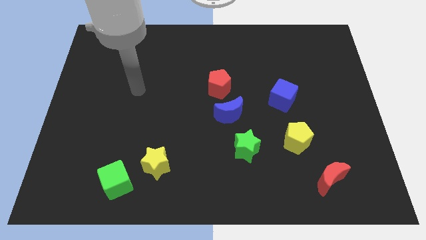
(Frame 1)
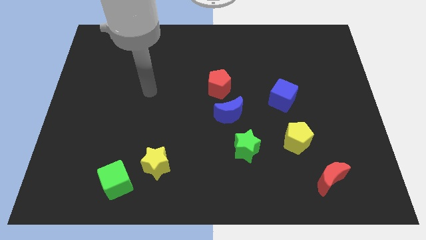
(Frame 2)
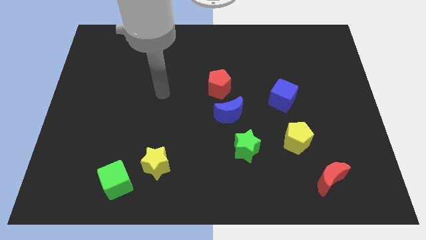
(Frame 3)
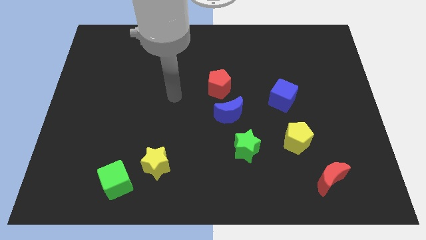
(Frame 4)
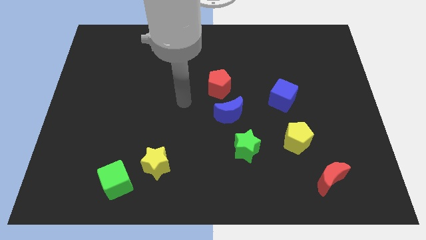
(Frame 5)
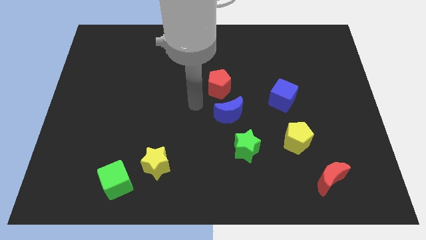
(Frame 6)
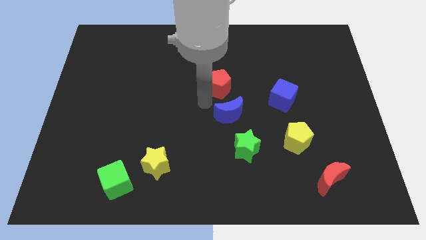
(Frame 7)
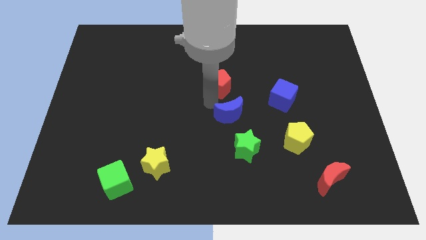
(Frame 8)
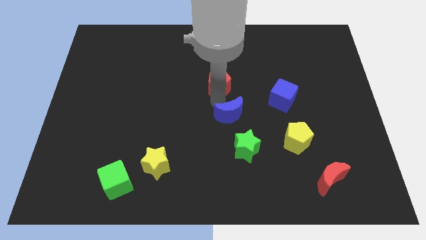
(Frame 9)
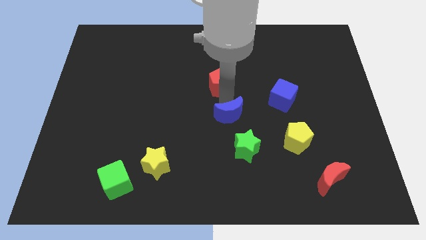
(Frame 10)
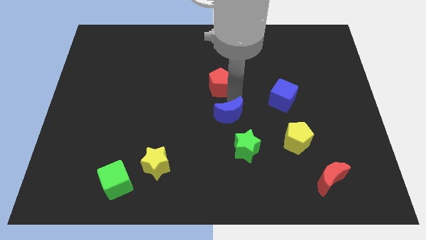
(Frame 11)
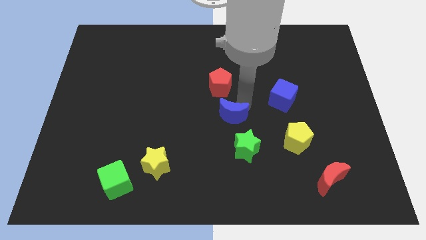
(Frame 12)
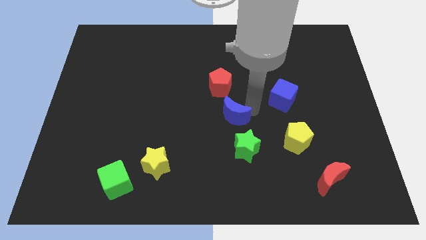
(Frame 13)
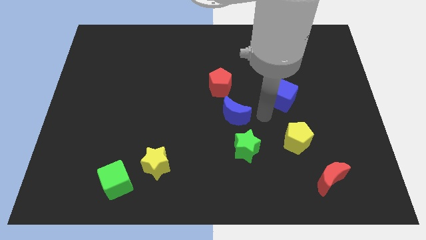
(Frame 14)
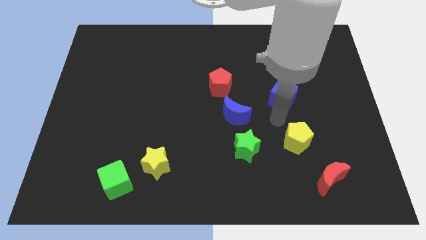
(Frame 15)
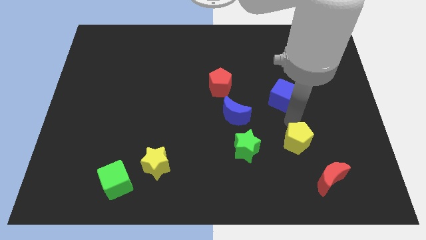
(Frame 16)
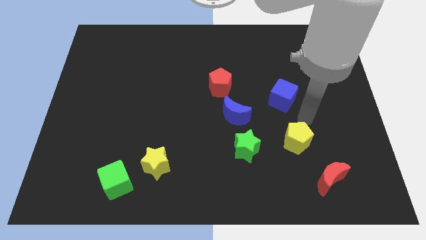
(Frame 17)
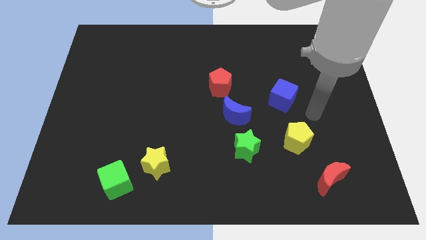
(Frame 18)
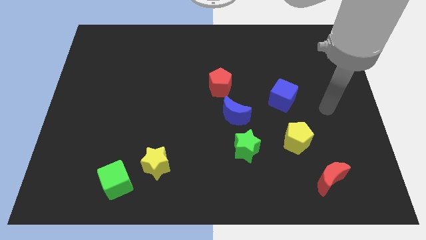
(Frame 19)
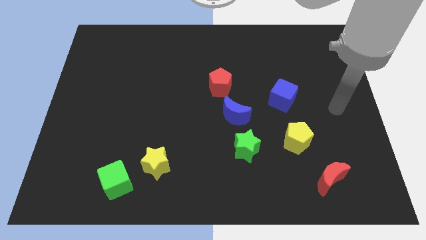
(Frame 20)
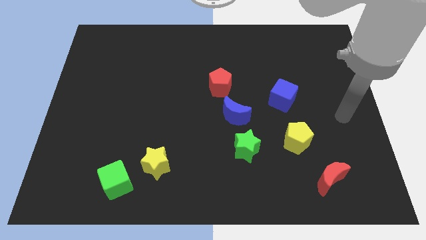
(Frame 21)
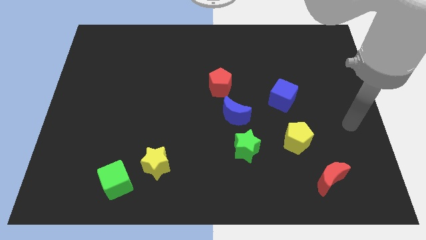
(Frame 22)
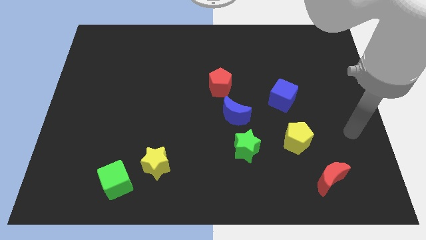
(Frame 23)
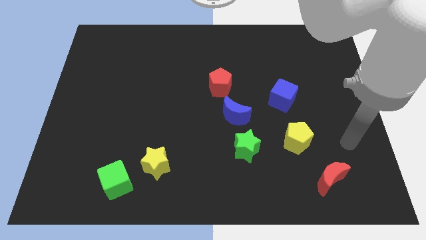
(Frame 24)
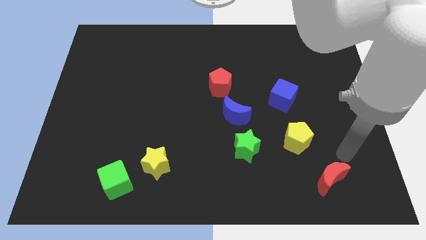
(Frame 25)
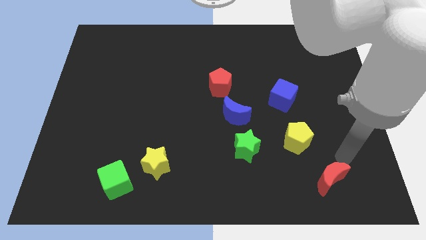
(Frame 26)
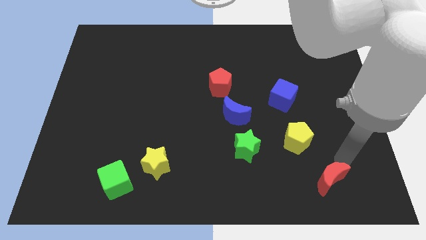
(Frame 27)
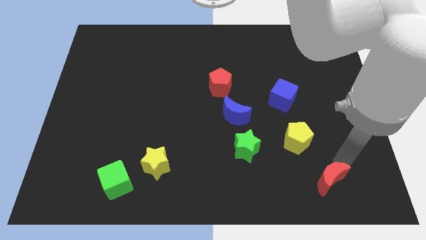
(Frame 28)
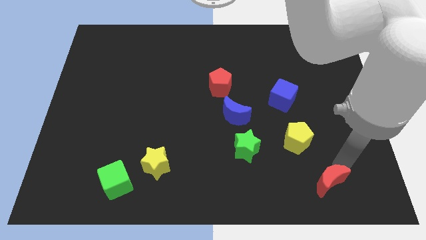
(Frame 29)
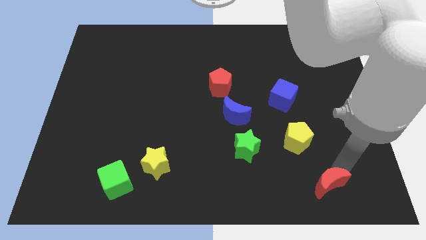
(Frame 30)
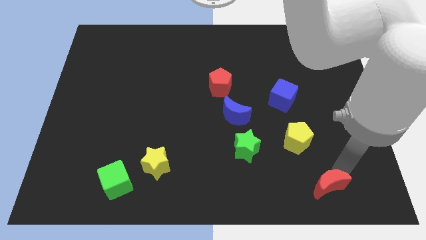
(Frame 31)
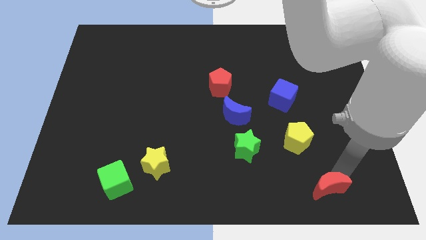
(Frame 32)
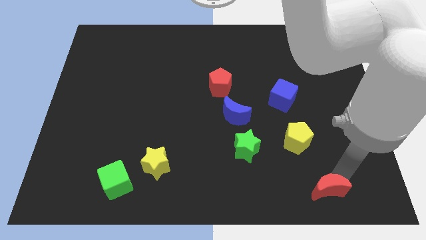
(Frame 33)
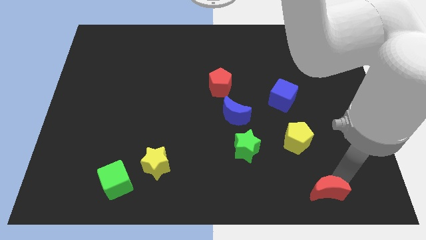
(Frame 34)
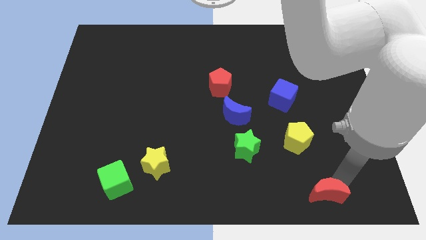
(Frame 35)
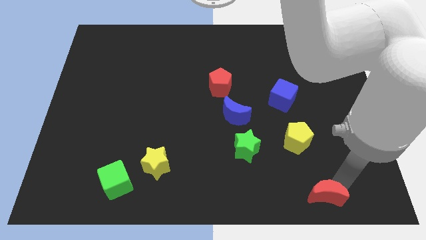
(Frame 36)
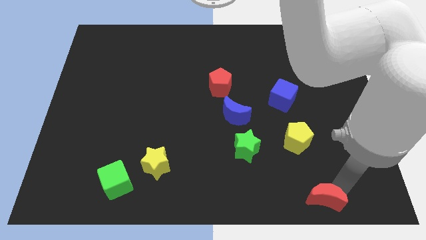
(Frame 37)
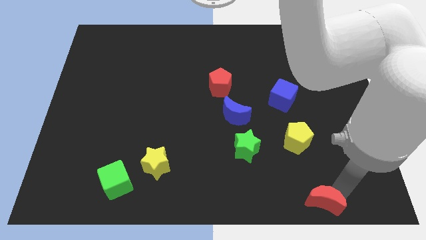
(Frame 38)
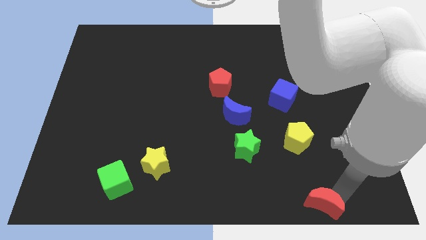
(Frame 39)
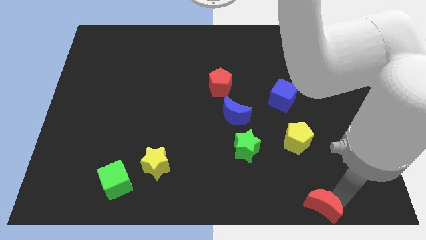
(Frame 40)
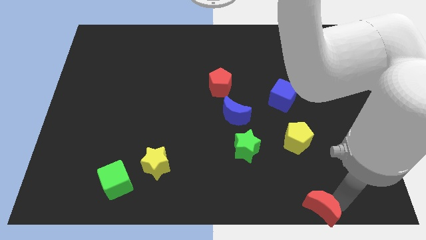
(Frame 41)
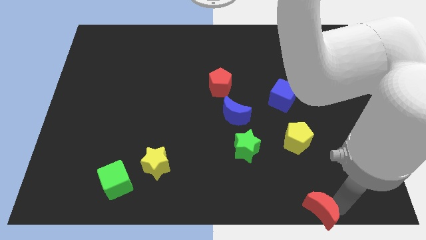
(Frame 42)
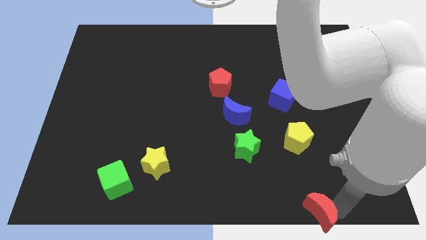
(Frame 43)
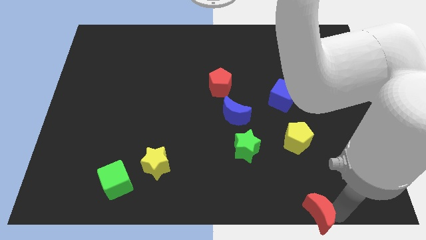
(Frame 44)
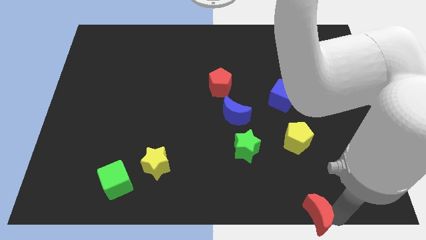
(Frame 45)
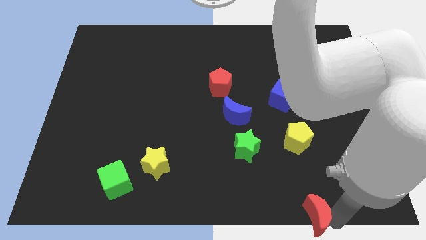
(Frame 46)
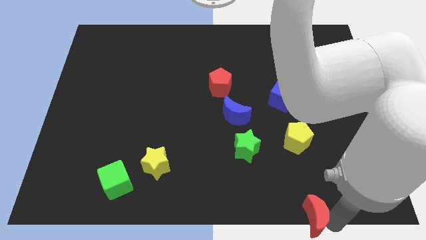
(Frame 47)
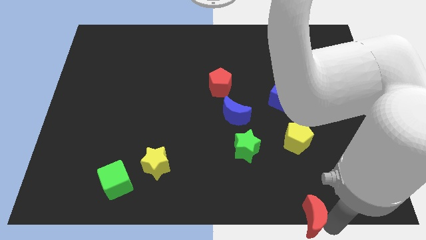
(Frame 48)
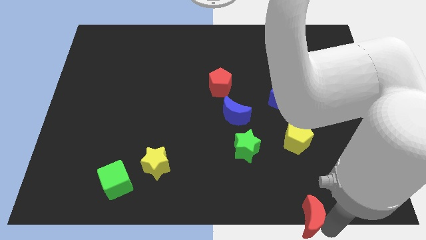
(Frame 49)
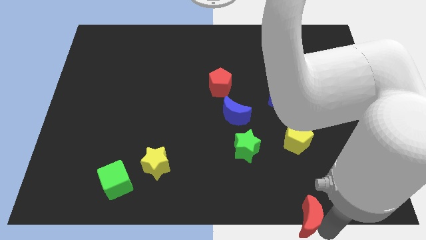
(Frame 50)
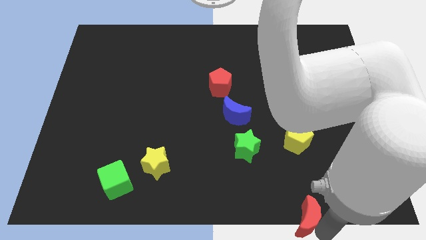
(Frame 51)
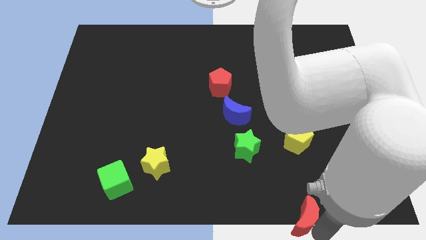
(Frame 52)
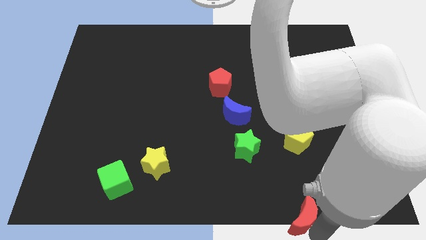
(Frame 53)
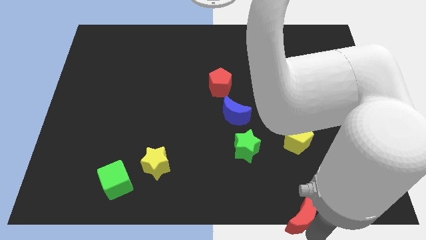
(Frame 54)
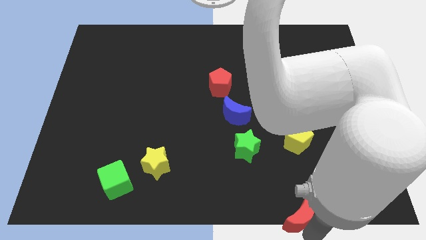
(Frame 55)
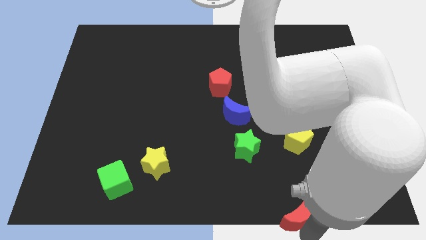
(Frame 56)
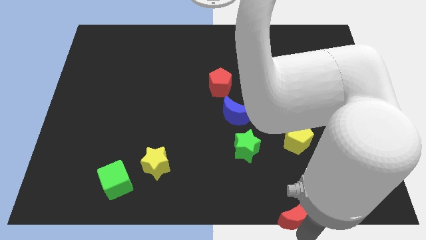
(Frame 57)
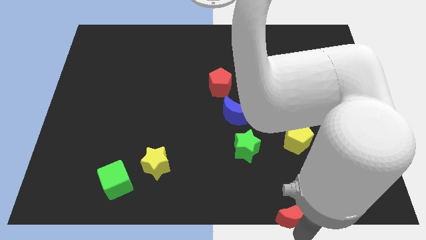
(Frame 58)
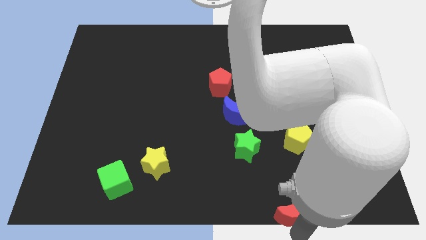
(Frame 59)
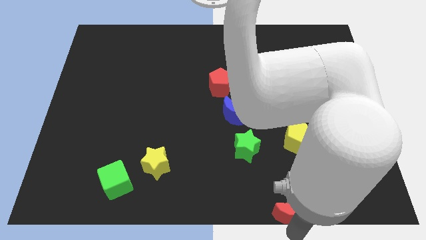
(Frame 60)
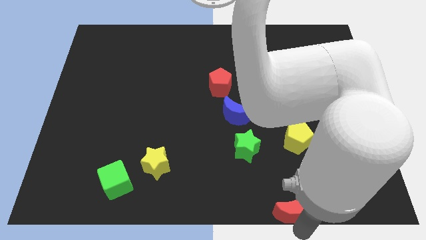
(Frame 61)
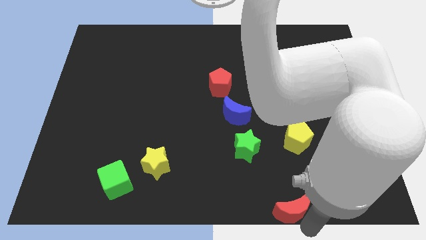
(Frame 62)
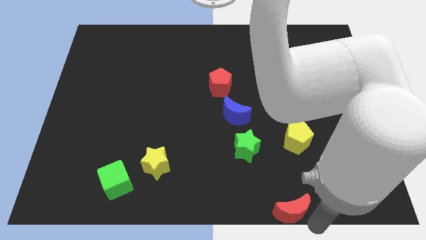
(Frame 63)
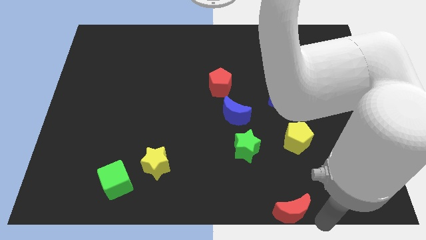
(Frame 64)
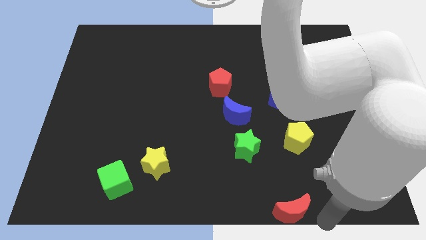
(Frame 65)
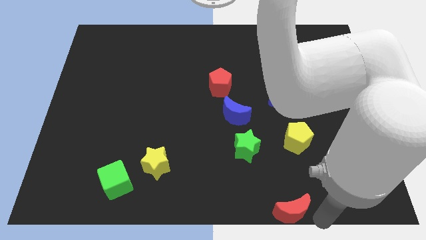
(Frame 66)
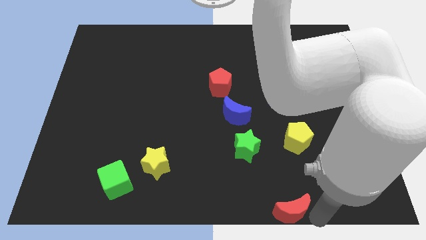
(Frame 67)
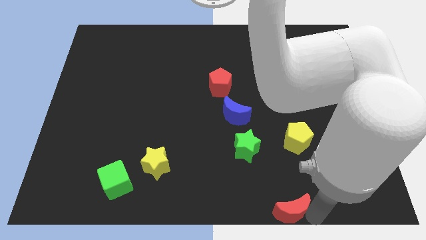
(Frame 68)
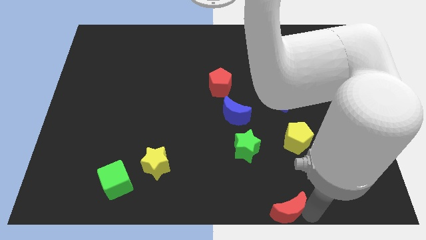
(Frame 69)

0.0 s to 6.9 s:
move the red moon to the bottom side
